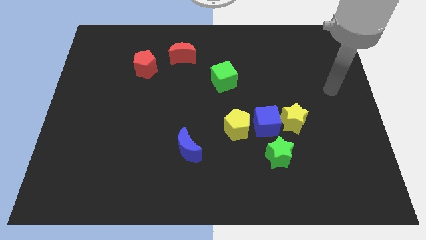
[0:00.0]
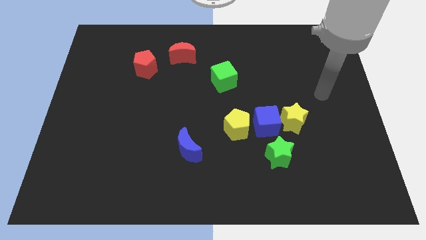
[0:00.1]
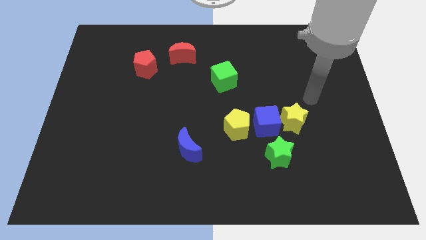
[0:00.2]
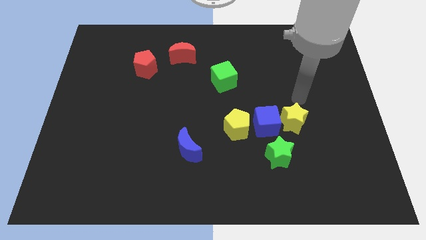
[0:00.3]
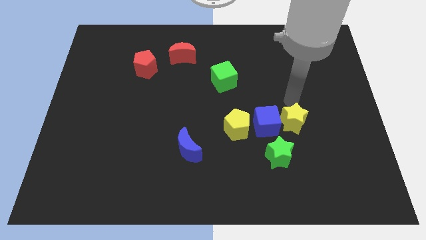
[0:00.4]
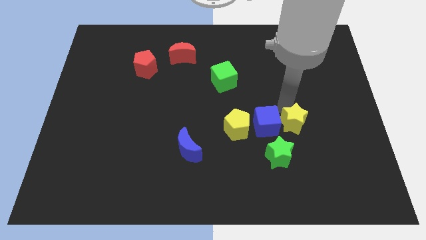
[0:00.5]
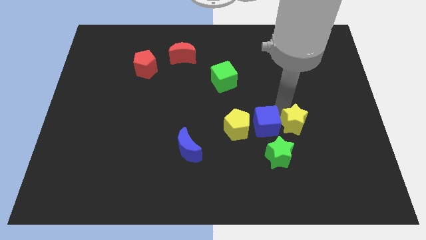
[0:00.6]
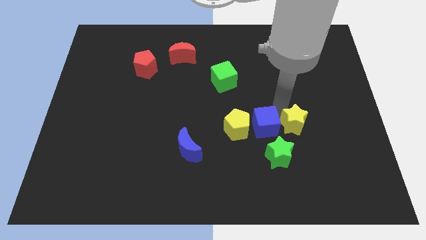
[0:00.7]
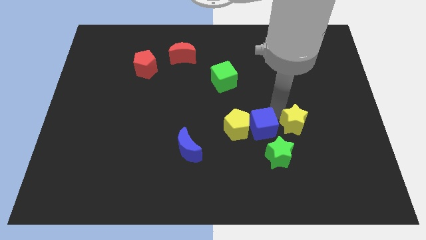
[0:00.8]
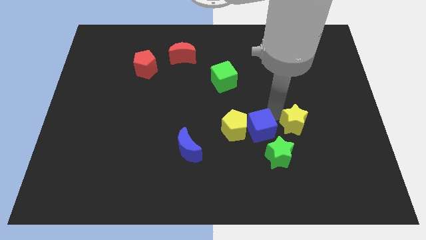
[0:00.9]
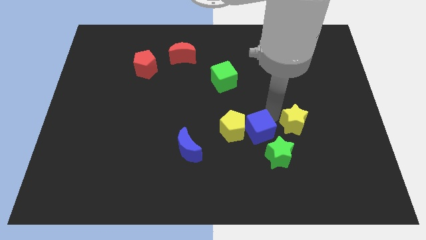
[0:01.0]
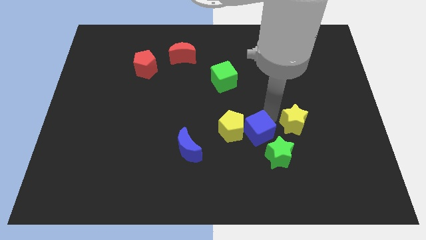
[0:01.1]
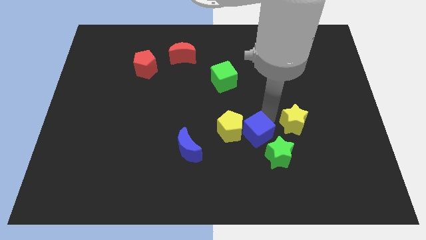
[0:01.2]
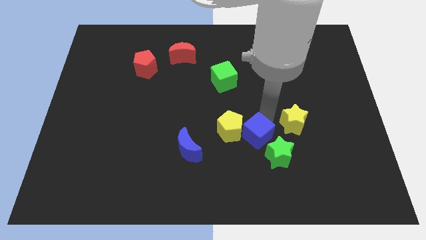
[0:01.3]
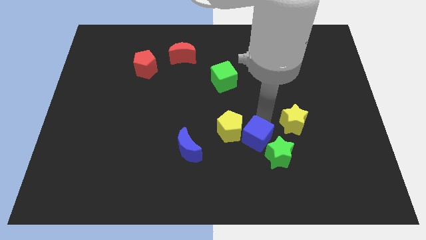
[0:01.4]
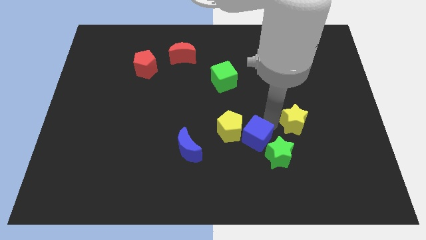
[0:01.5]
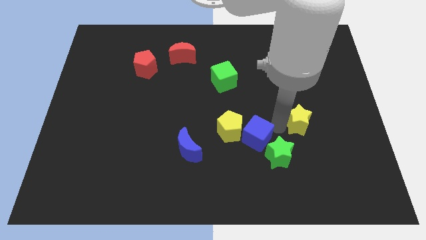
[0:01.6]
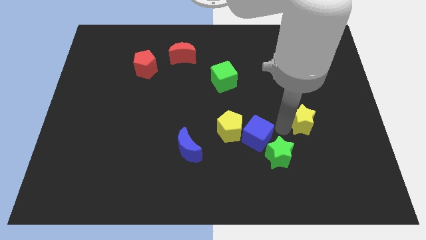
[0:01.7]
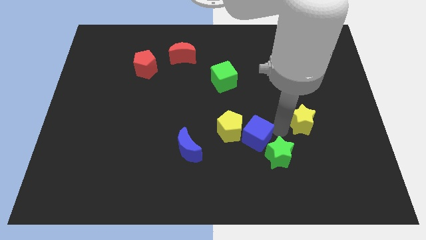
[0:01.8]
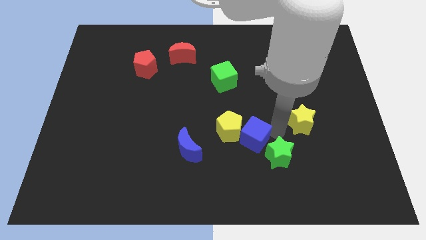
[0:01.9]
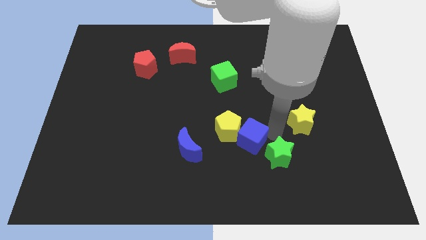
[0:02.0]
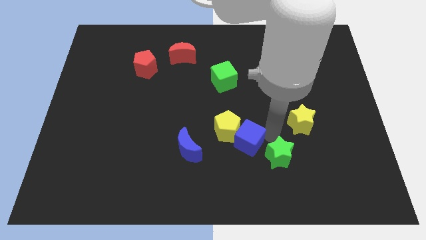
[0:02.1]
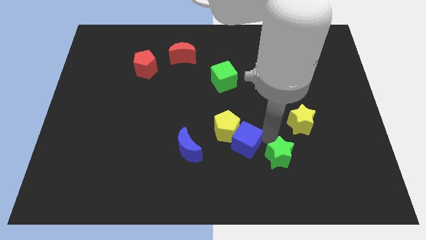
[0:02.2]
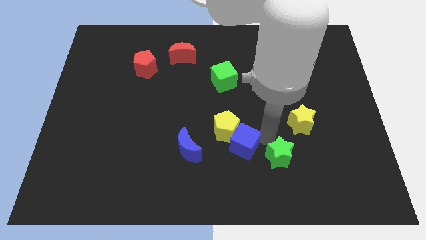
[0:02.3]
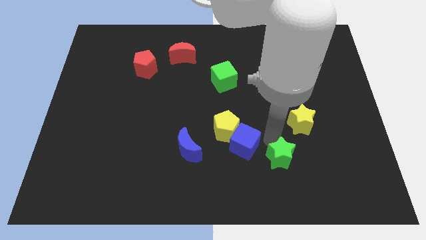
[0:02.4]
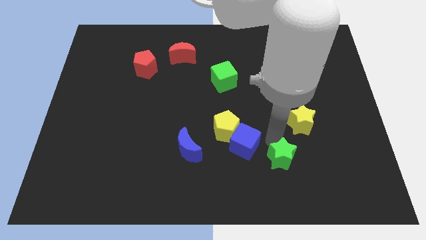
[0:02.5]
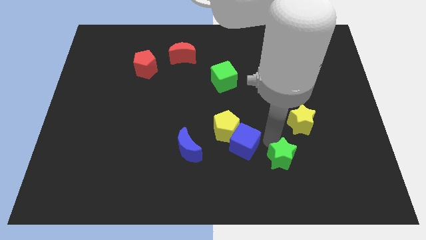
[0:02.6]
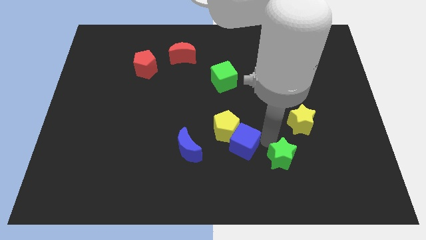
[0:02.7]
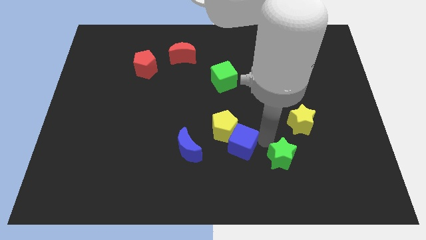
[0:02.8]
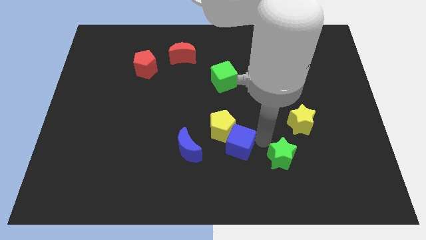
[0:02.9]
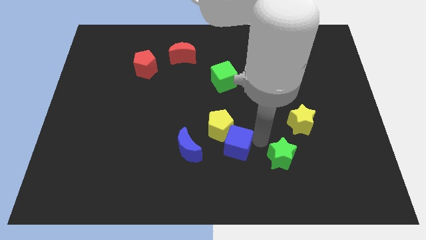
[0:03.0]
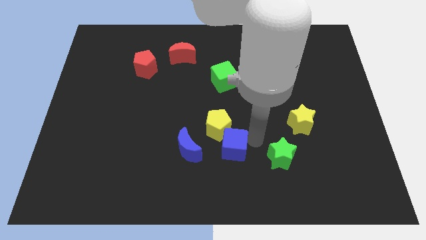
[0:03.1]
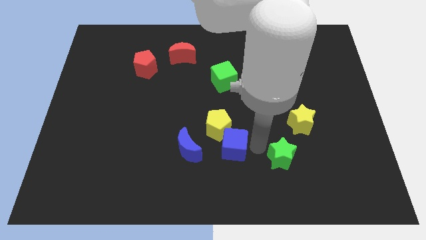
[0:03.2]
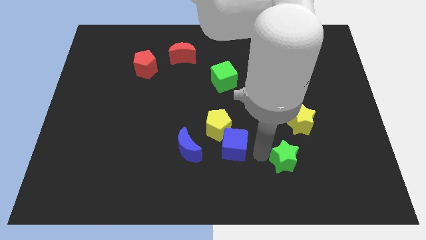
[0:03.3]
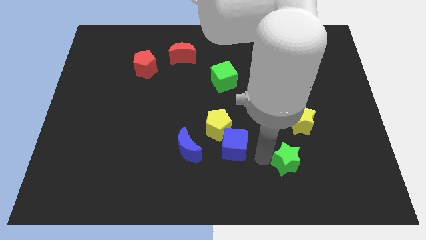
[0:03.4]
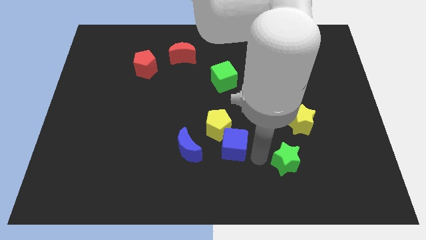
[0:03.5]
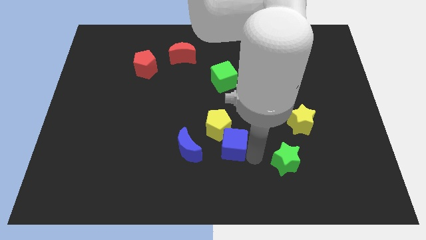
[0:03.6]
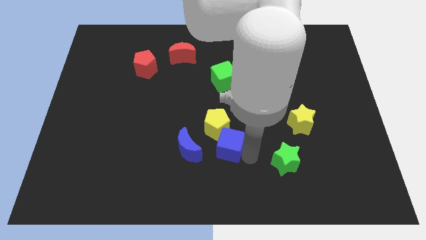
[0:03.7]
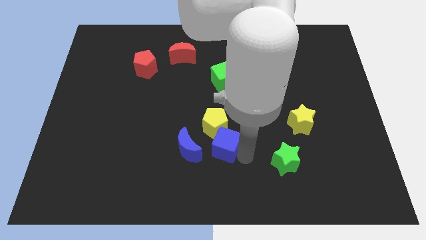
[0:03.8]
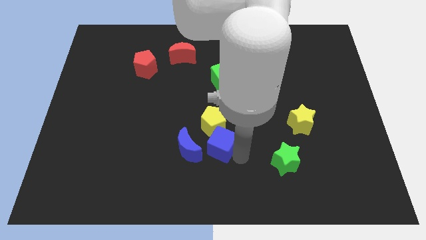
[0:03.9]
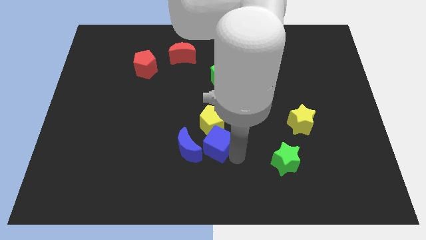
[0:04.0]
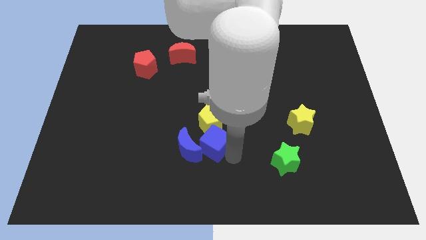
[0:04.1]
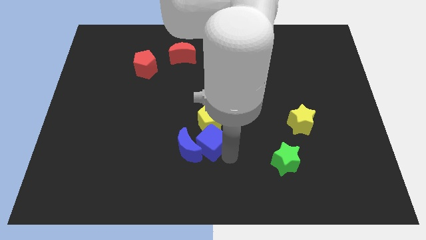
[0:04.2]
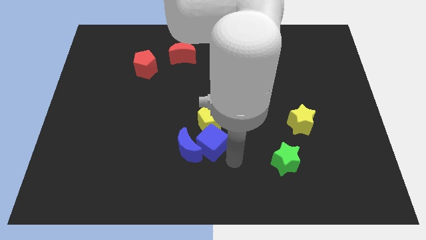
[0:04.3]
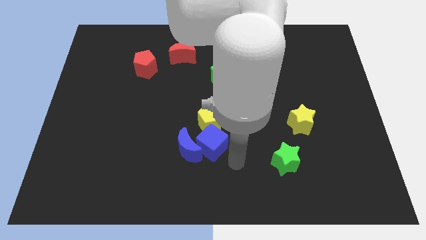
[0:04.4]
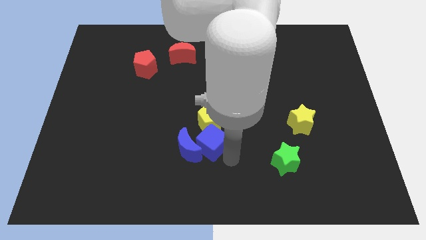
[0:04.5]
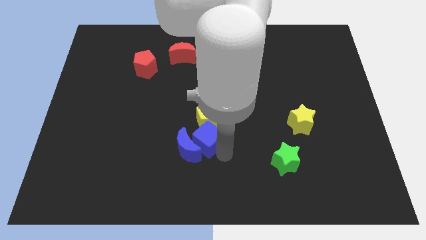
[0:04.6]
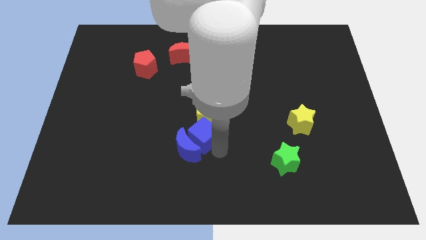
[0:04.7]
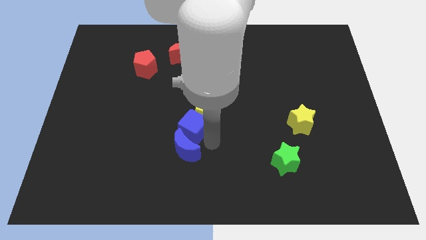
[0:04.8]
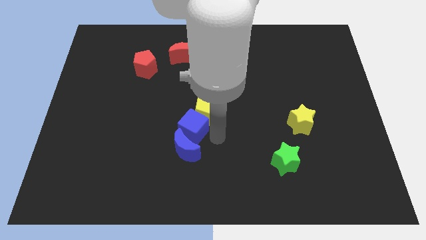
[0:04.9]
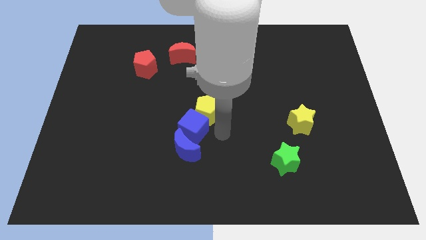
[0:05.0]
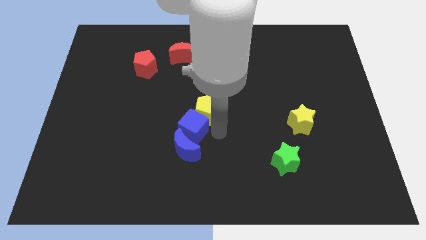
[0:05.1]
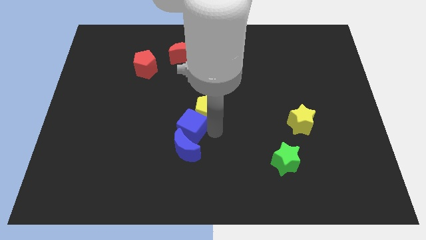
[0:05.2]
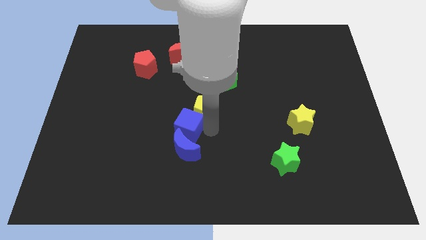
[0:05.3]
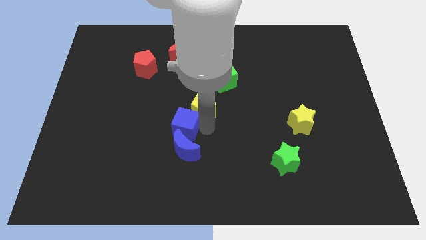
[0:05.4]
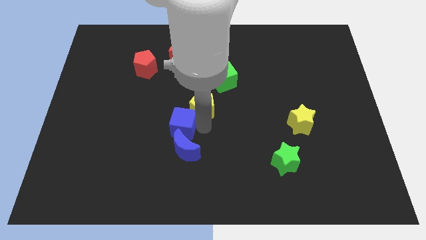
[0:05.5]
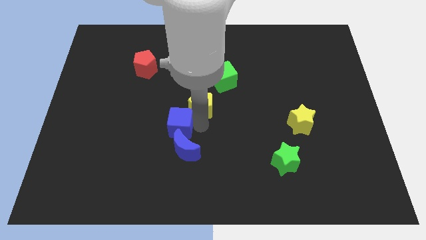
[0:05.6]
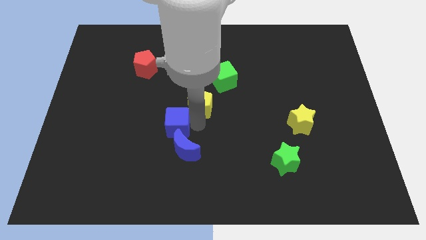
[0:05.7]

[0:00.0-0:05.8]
slide the blue cube left

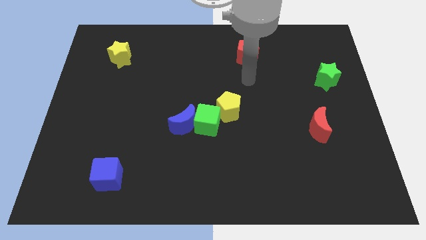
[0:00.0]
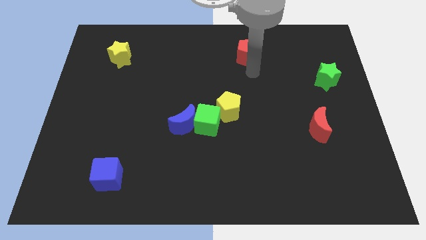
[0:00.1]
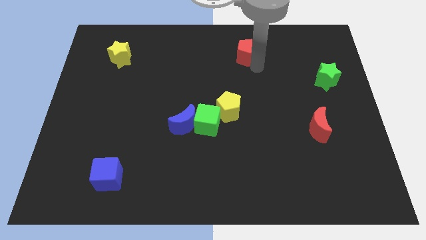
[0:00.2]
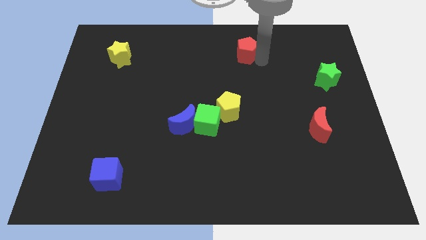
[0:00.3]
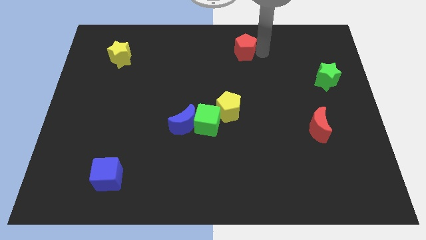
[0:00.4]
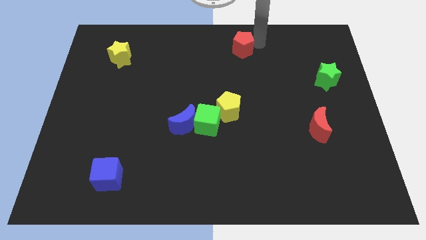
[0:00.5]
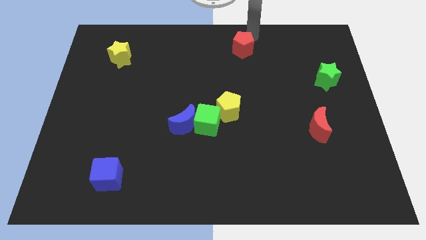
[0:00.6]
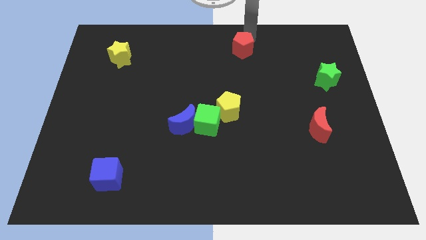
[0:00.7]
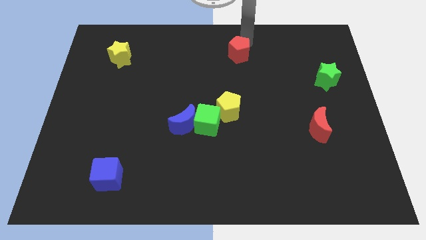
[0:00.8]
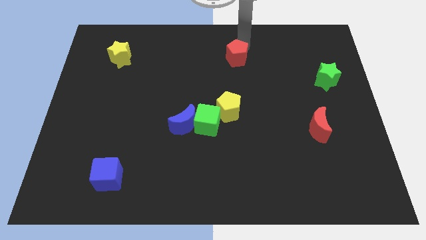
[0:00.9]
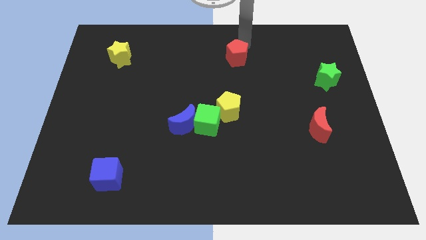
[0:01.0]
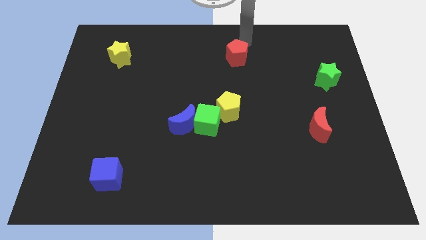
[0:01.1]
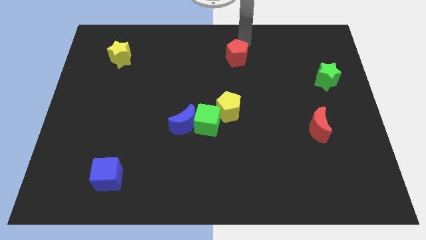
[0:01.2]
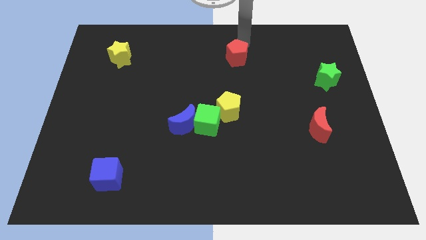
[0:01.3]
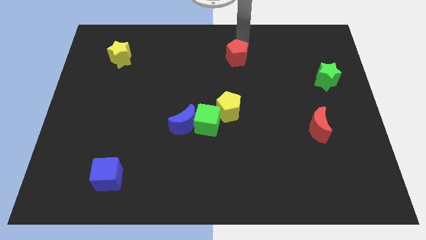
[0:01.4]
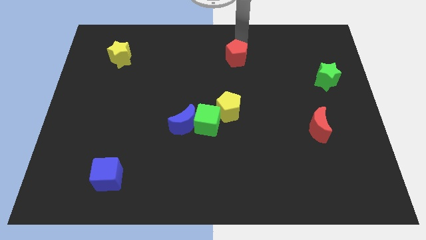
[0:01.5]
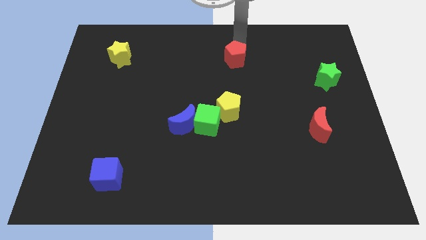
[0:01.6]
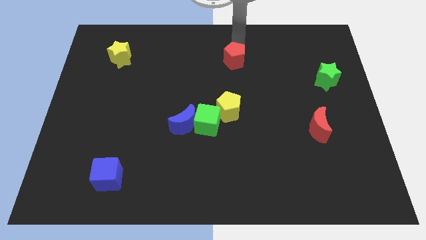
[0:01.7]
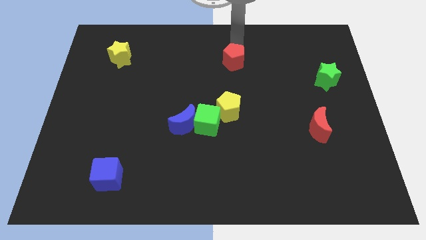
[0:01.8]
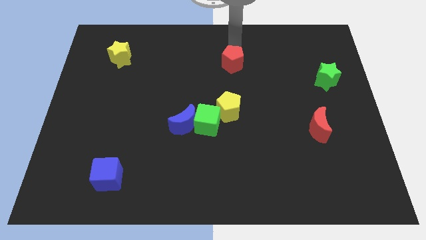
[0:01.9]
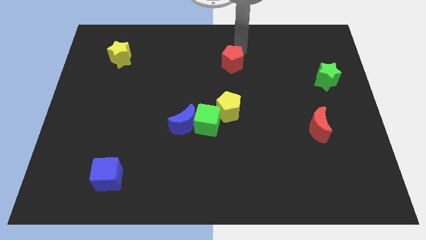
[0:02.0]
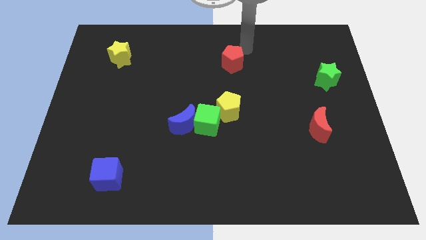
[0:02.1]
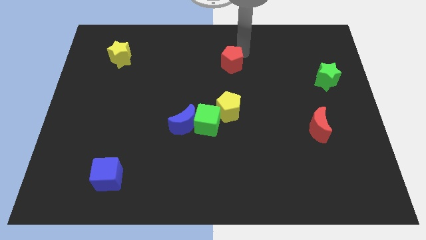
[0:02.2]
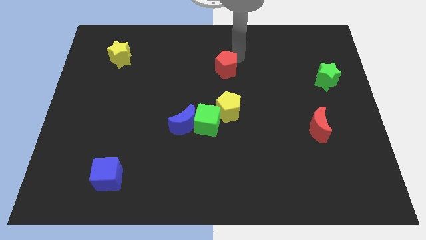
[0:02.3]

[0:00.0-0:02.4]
slightly push the red pentagon downwards and then to the left
